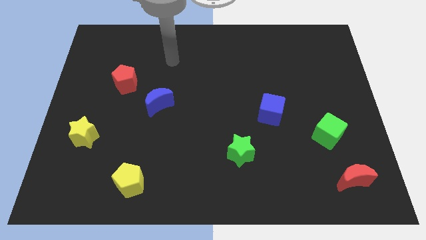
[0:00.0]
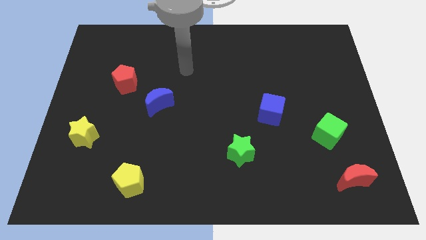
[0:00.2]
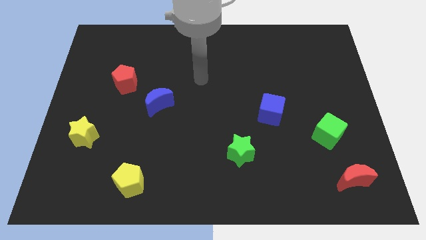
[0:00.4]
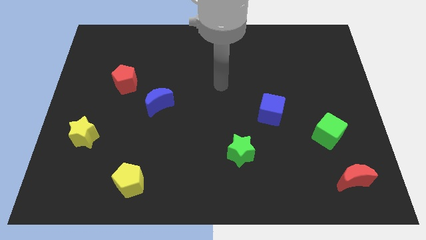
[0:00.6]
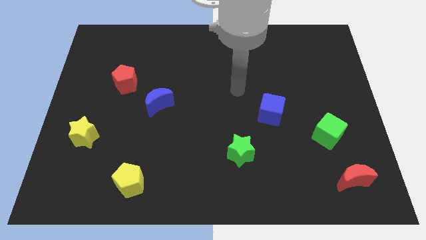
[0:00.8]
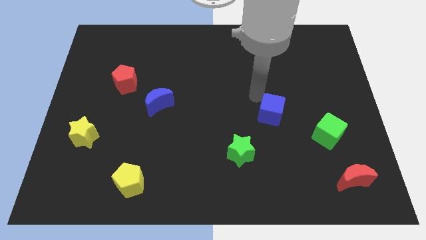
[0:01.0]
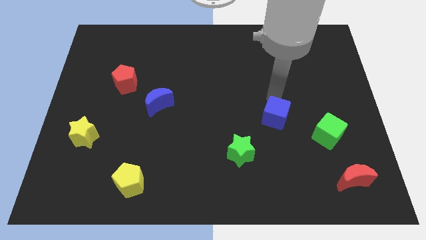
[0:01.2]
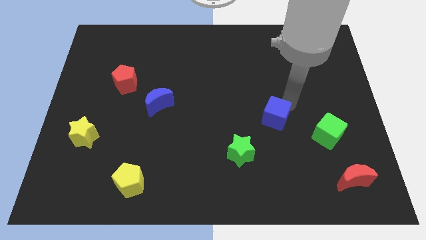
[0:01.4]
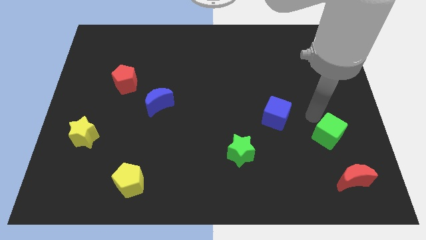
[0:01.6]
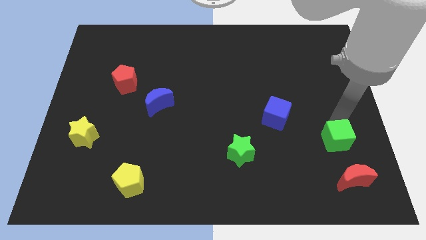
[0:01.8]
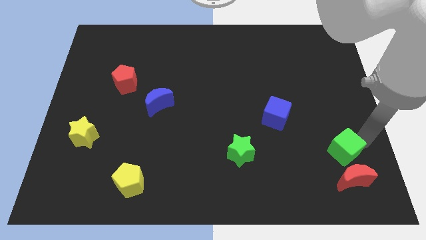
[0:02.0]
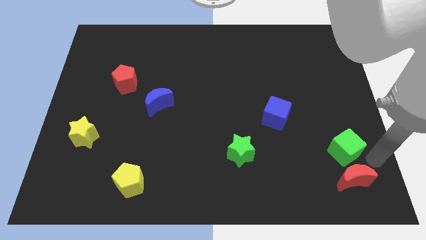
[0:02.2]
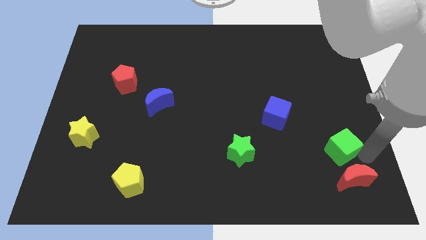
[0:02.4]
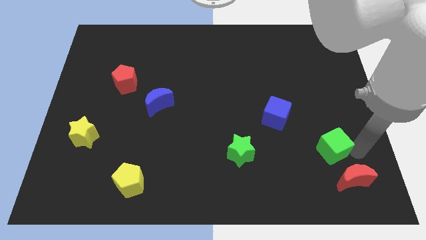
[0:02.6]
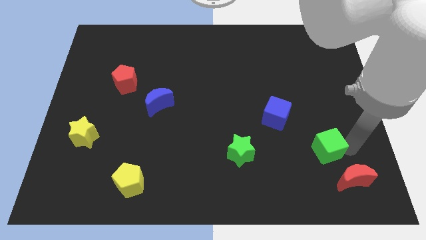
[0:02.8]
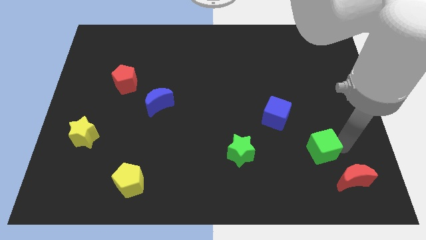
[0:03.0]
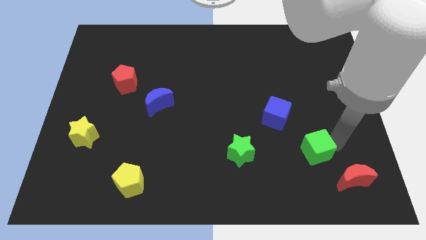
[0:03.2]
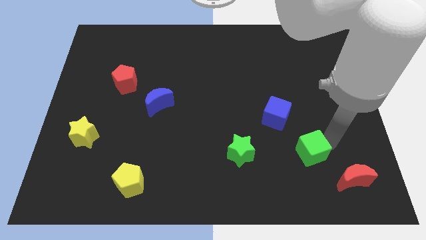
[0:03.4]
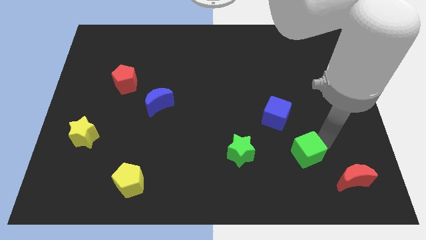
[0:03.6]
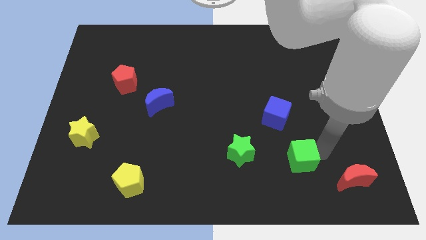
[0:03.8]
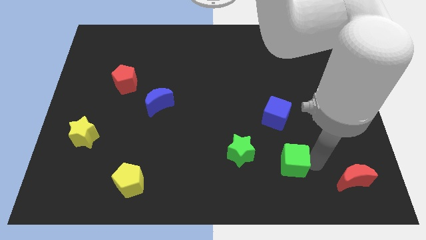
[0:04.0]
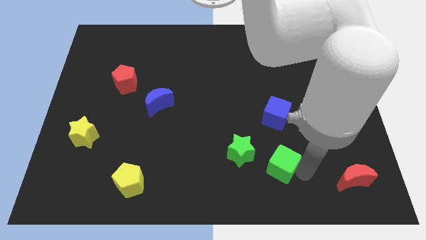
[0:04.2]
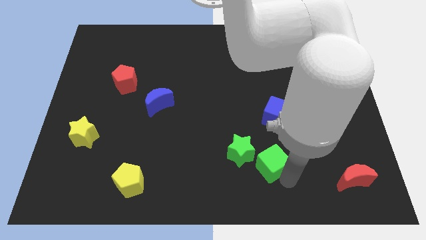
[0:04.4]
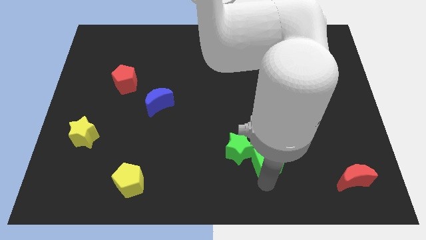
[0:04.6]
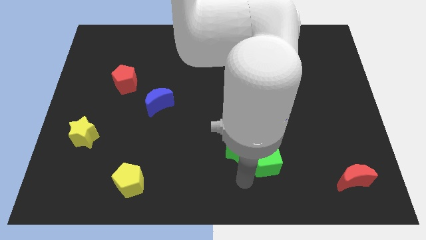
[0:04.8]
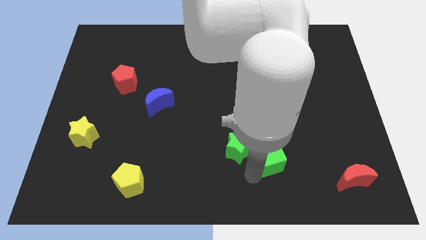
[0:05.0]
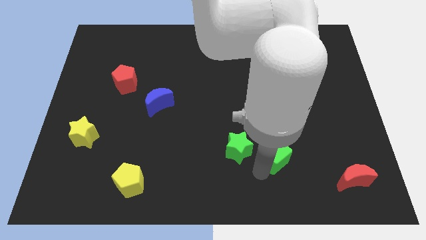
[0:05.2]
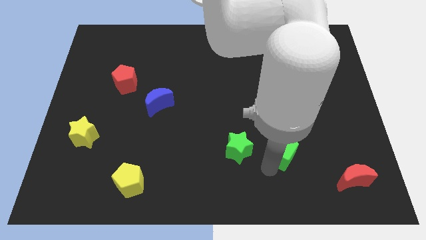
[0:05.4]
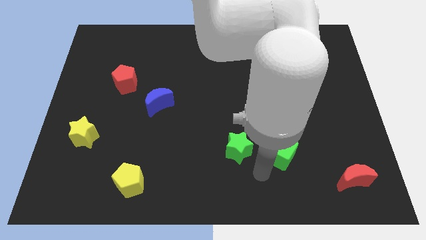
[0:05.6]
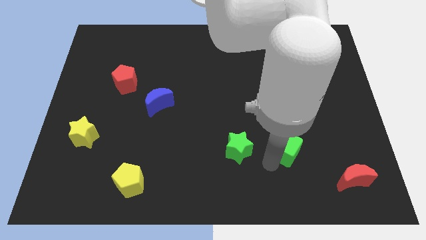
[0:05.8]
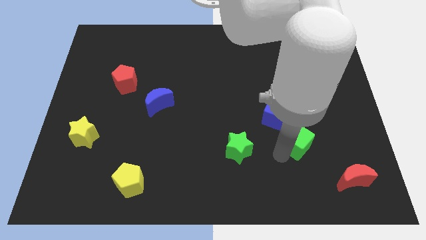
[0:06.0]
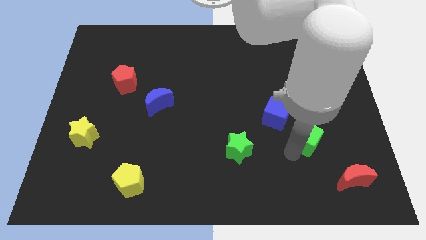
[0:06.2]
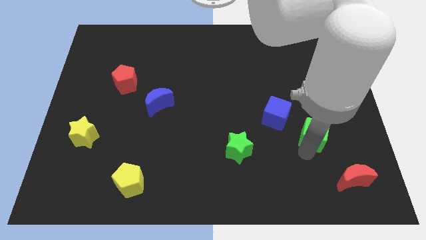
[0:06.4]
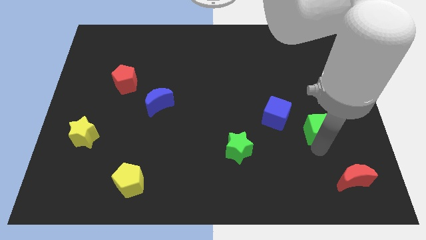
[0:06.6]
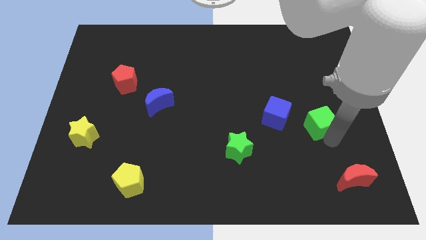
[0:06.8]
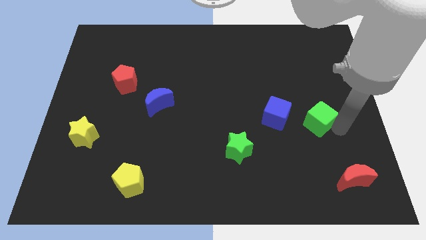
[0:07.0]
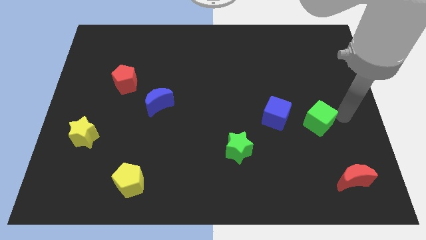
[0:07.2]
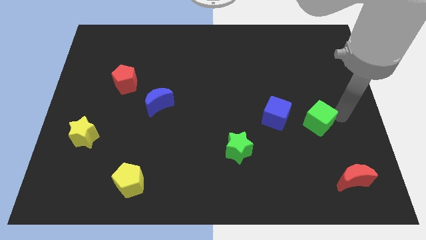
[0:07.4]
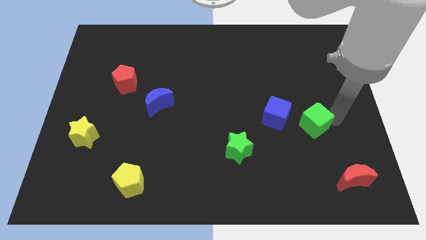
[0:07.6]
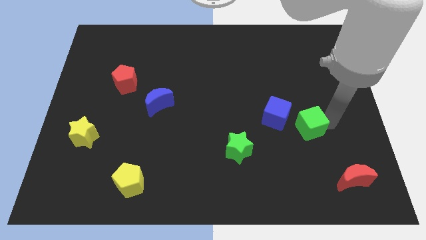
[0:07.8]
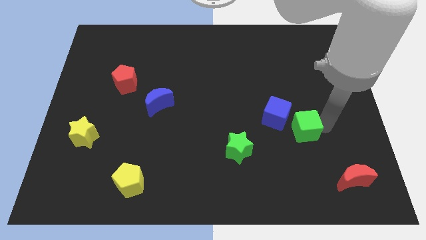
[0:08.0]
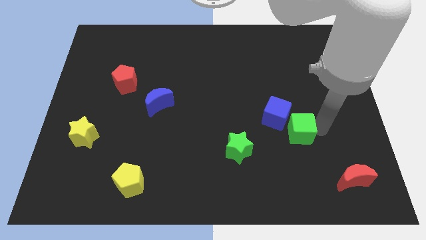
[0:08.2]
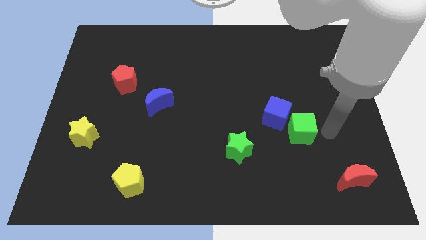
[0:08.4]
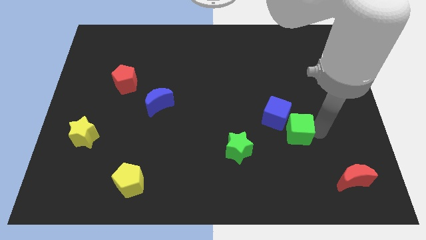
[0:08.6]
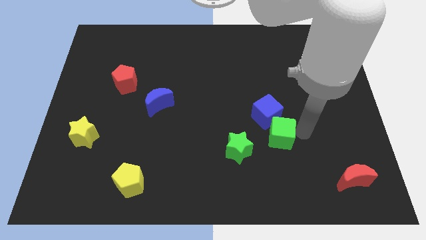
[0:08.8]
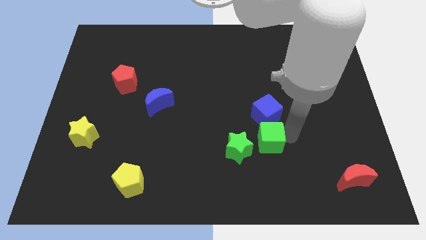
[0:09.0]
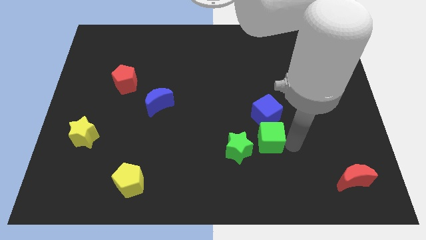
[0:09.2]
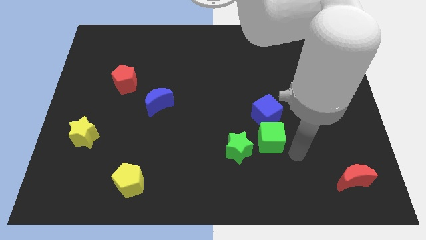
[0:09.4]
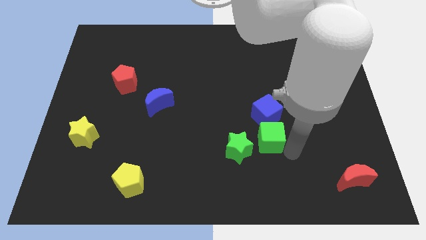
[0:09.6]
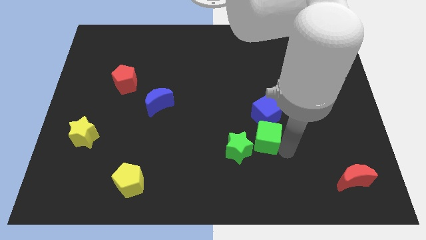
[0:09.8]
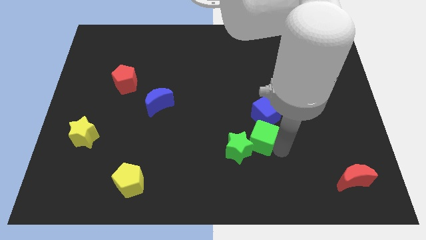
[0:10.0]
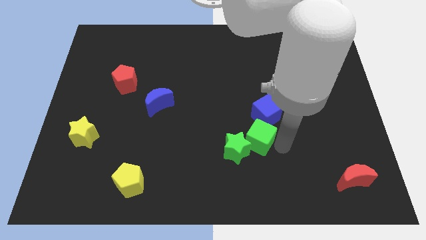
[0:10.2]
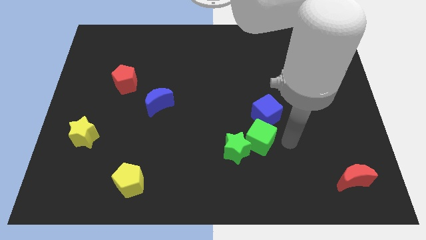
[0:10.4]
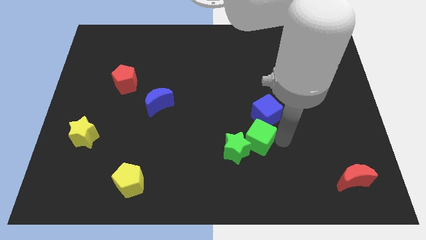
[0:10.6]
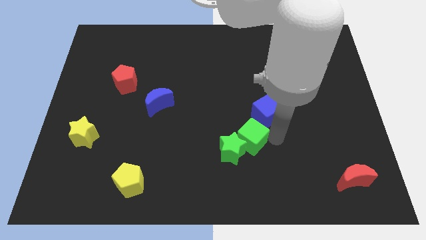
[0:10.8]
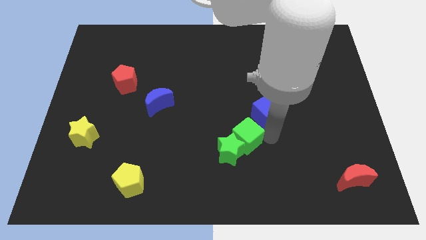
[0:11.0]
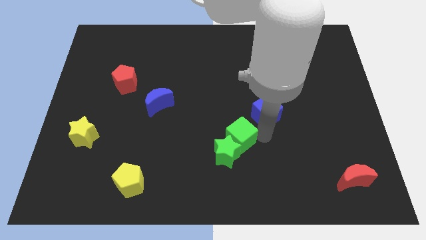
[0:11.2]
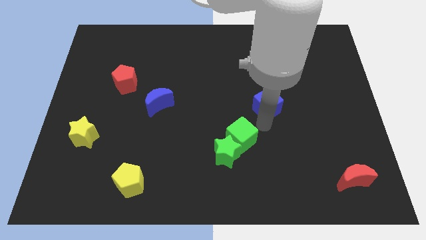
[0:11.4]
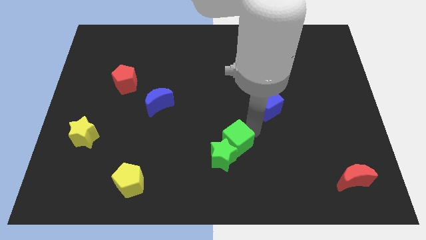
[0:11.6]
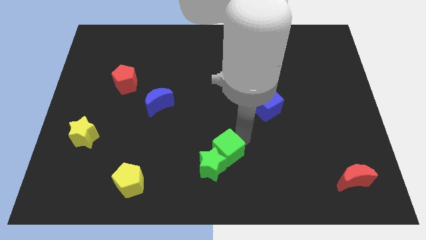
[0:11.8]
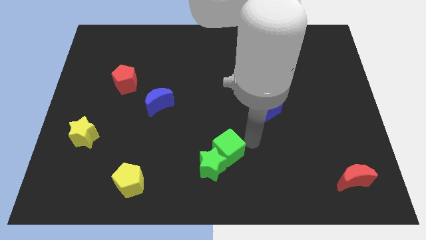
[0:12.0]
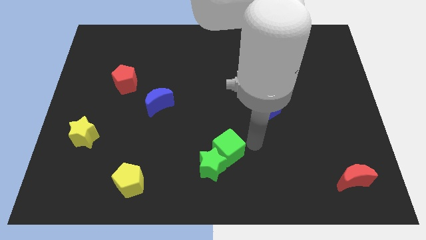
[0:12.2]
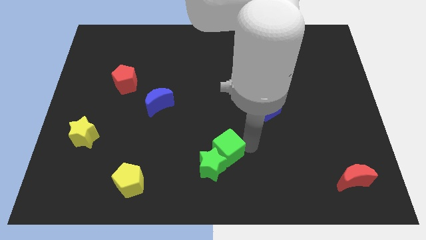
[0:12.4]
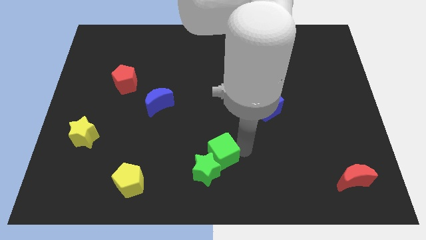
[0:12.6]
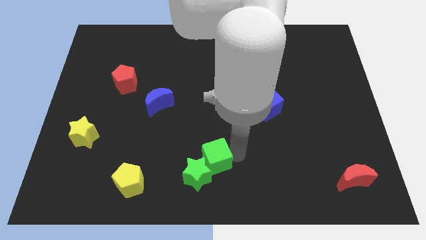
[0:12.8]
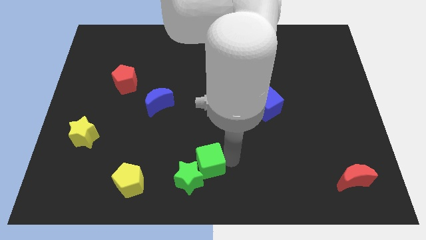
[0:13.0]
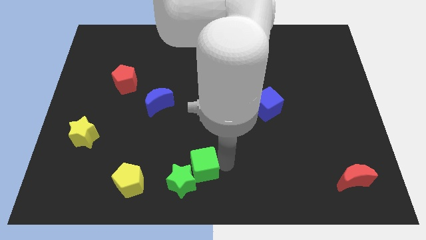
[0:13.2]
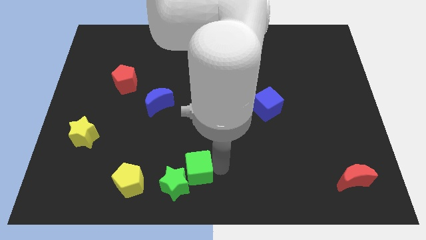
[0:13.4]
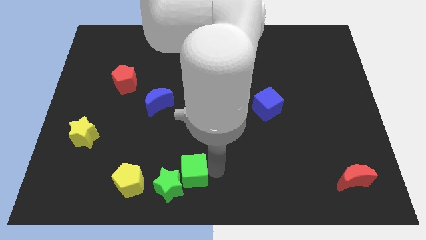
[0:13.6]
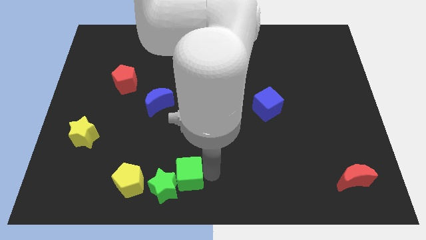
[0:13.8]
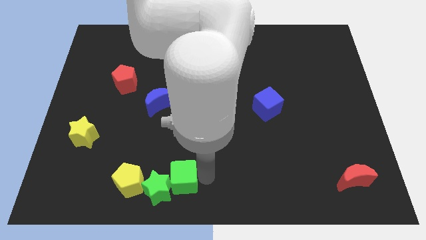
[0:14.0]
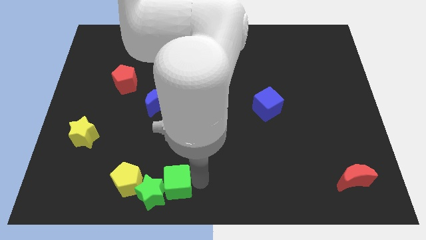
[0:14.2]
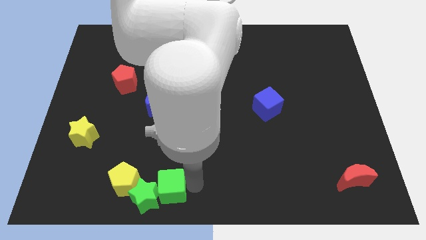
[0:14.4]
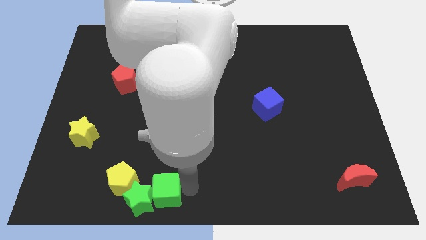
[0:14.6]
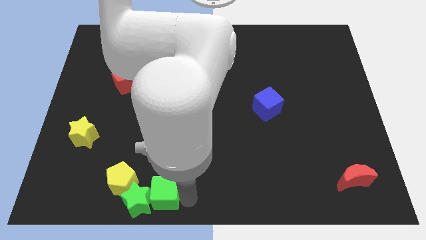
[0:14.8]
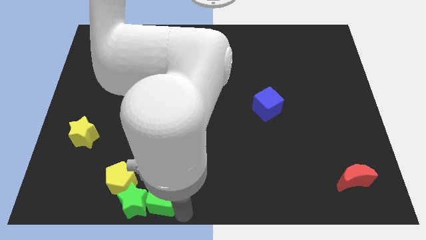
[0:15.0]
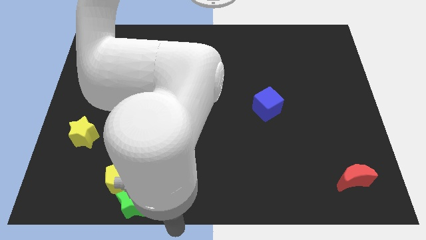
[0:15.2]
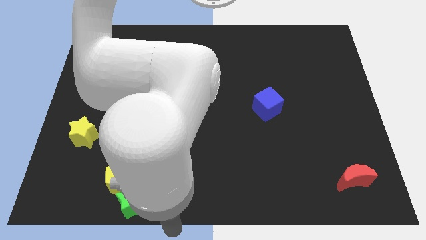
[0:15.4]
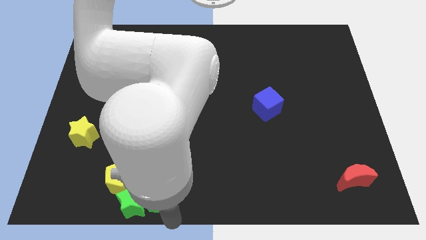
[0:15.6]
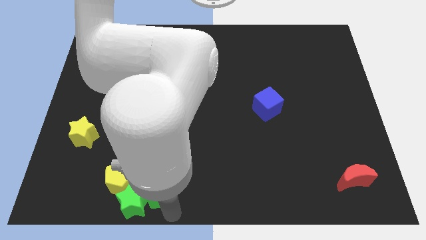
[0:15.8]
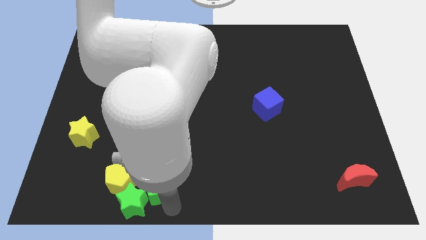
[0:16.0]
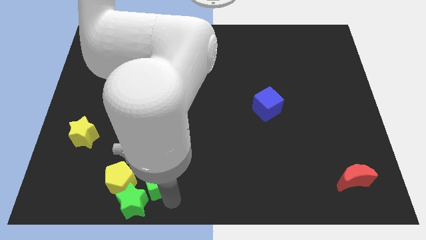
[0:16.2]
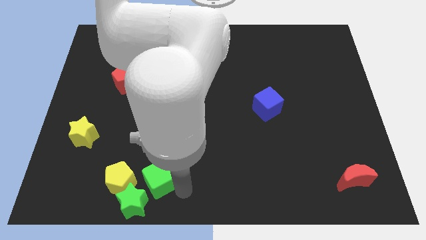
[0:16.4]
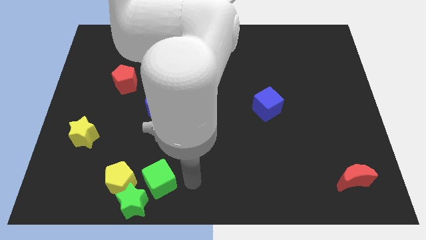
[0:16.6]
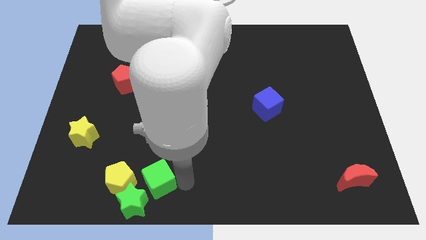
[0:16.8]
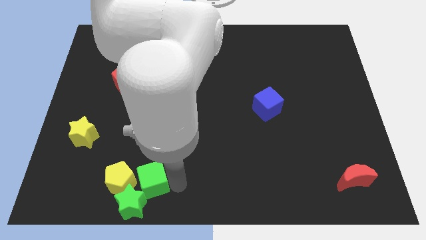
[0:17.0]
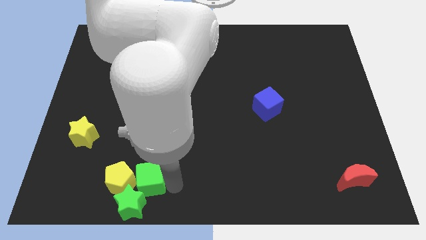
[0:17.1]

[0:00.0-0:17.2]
slide the green cube to the yellow pentagon
